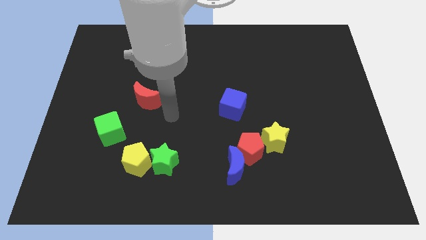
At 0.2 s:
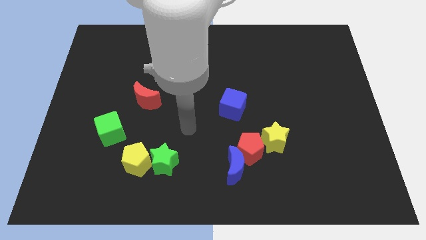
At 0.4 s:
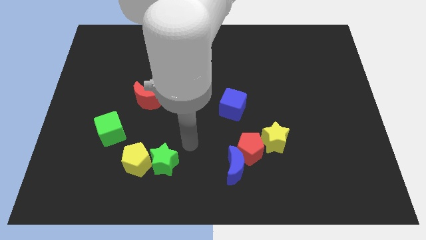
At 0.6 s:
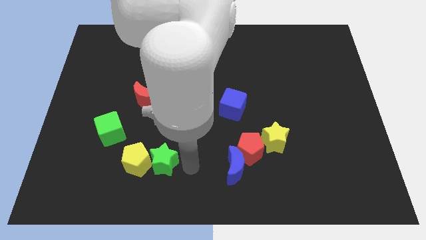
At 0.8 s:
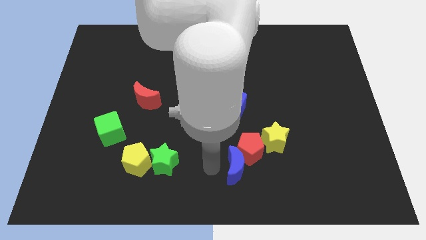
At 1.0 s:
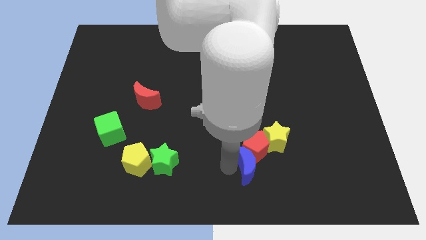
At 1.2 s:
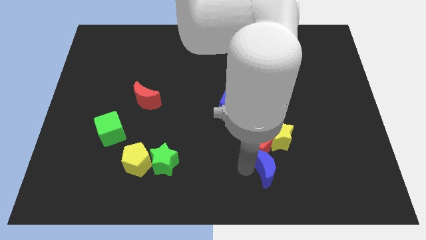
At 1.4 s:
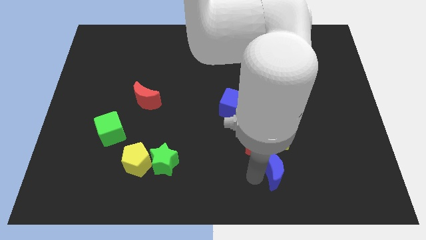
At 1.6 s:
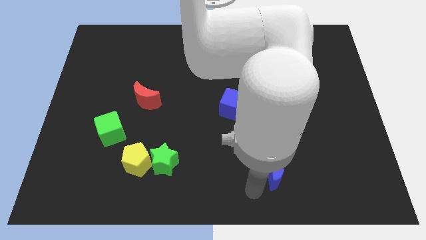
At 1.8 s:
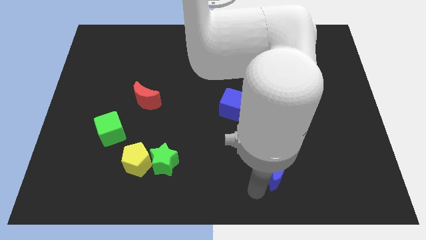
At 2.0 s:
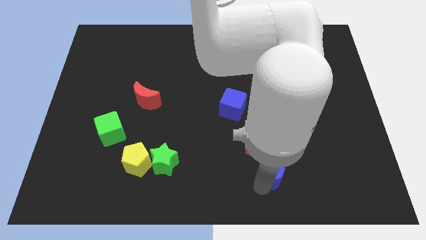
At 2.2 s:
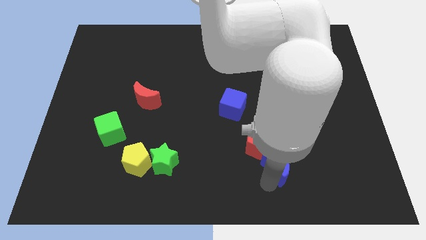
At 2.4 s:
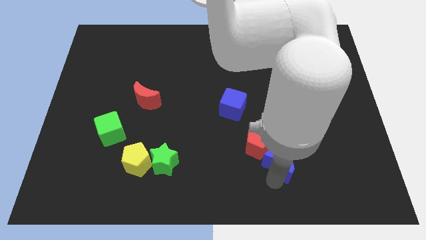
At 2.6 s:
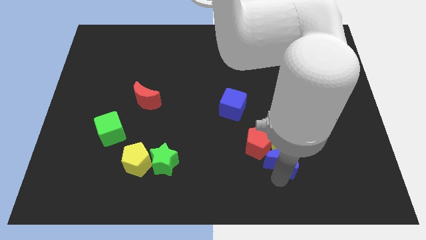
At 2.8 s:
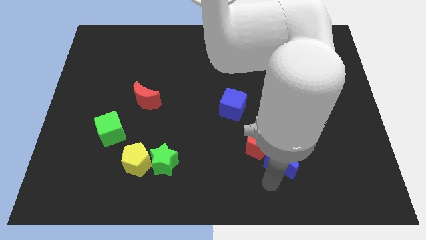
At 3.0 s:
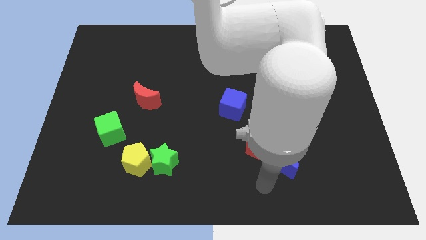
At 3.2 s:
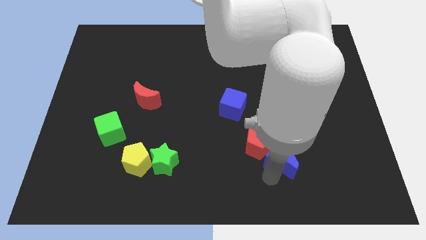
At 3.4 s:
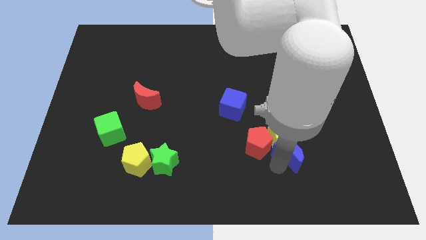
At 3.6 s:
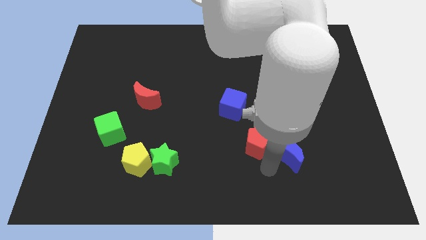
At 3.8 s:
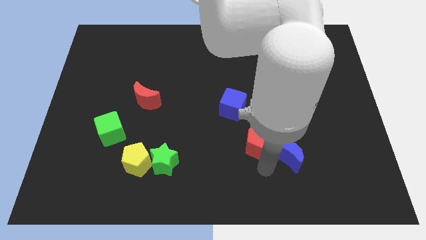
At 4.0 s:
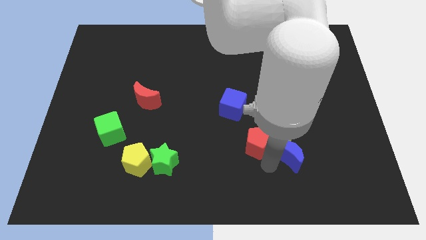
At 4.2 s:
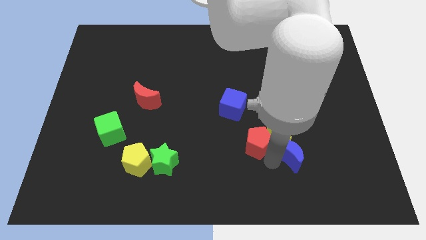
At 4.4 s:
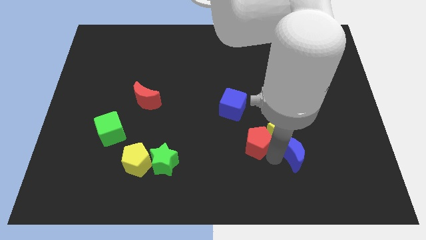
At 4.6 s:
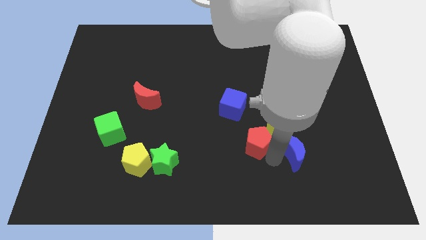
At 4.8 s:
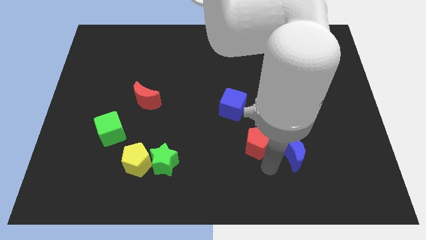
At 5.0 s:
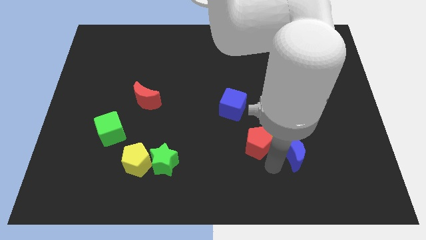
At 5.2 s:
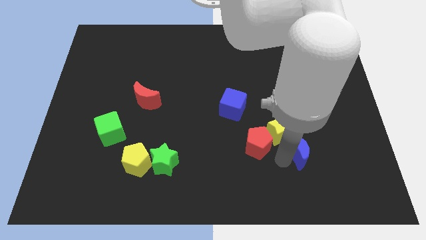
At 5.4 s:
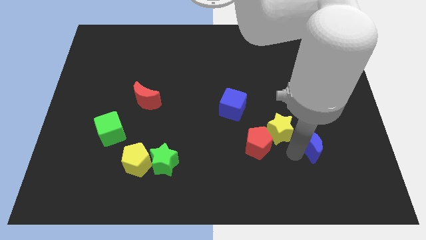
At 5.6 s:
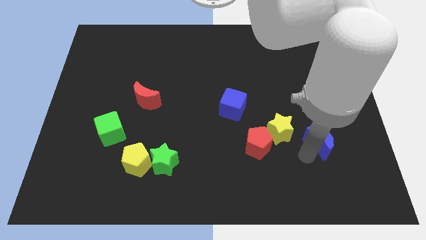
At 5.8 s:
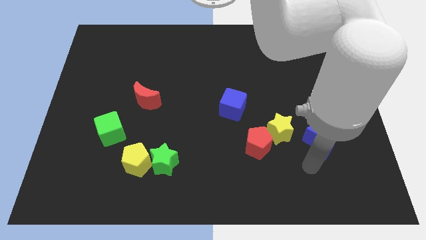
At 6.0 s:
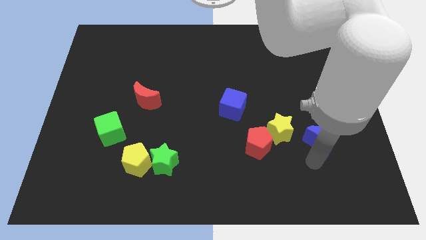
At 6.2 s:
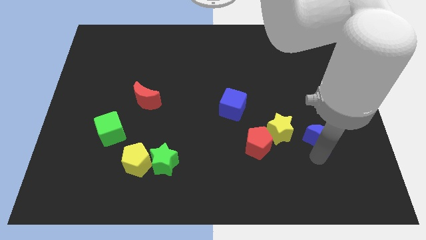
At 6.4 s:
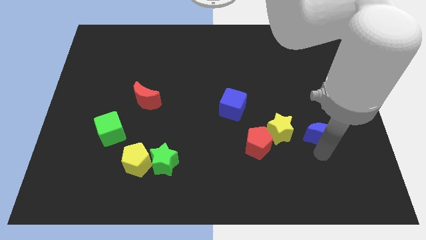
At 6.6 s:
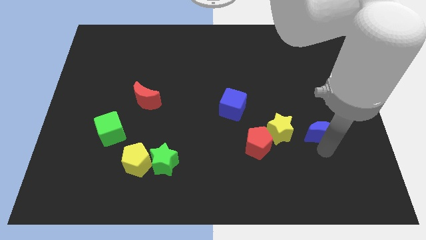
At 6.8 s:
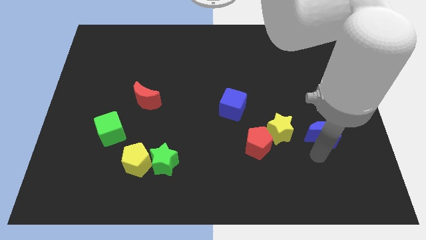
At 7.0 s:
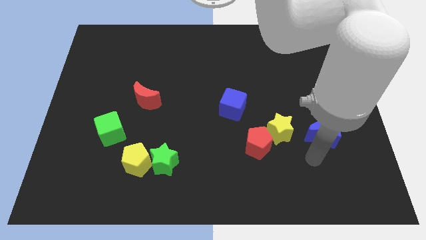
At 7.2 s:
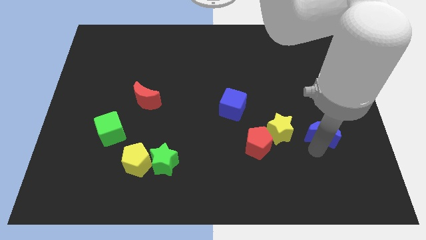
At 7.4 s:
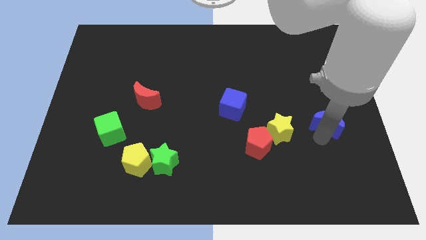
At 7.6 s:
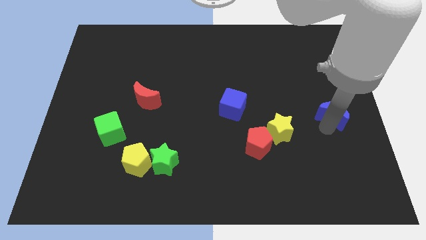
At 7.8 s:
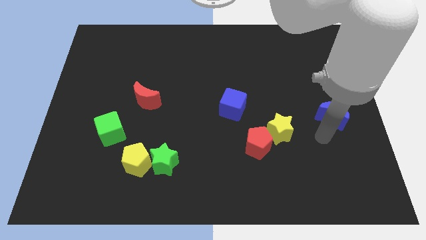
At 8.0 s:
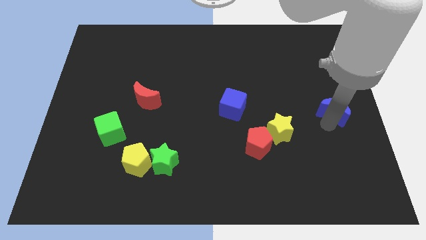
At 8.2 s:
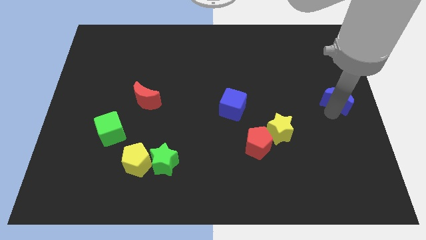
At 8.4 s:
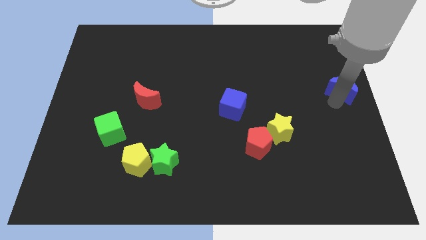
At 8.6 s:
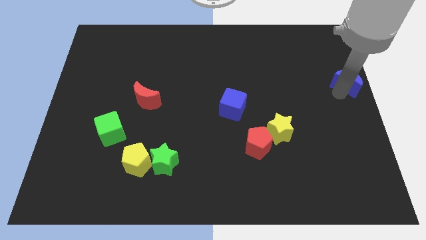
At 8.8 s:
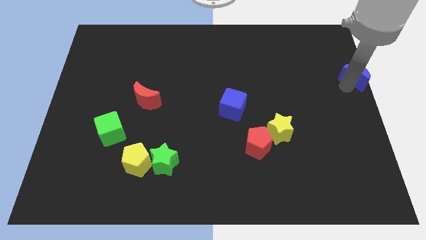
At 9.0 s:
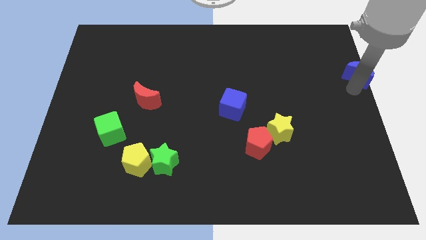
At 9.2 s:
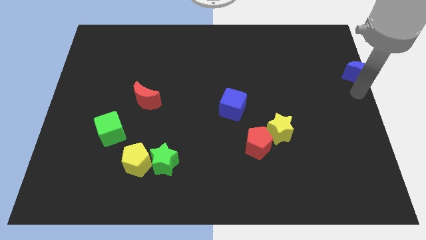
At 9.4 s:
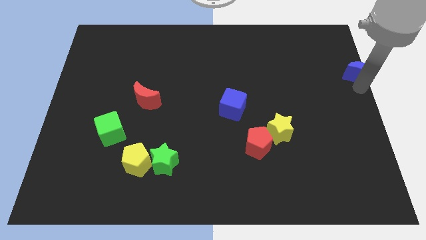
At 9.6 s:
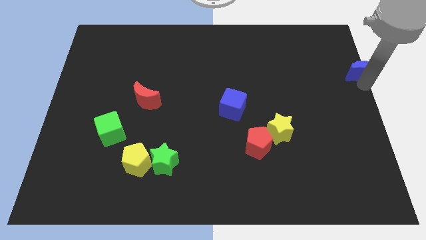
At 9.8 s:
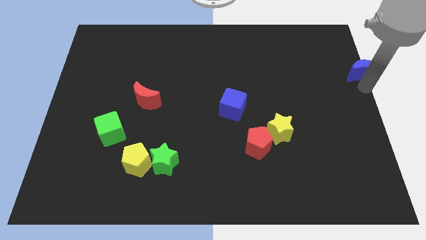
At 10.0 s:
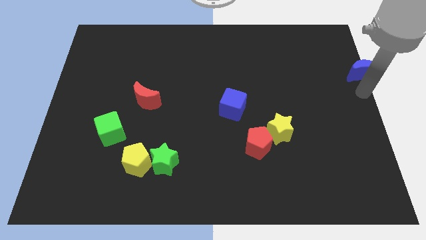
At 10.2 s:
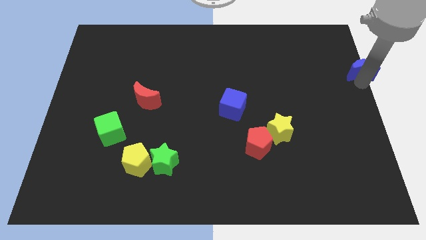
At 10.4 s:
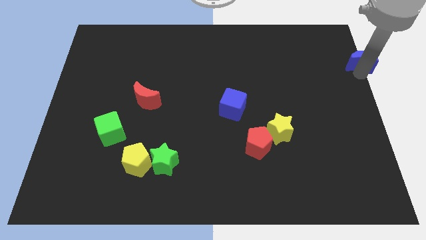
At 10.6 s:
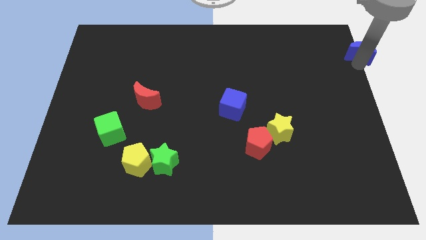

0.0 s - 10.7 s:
move the blue moon to the top right of the board

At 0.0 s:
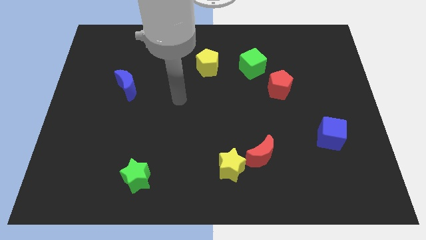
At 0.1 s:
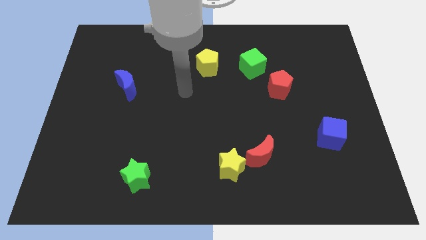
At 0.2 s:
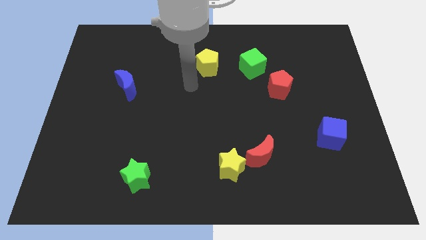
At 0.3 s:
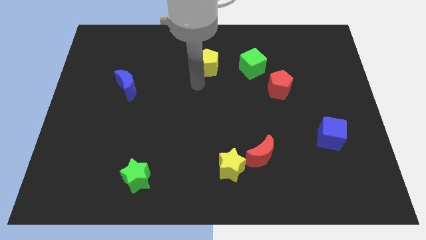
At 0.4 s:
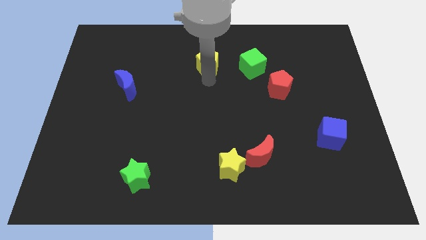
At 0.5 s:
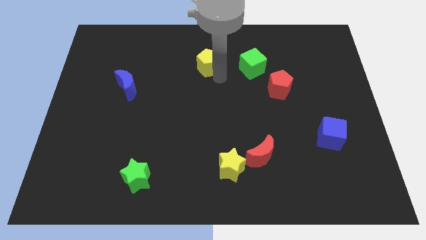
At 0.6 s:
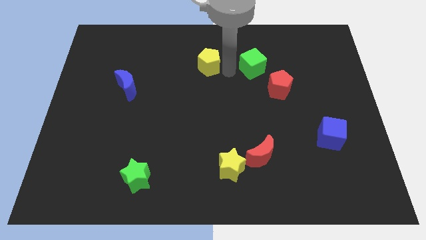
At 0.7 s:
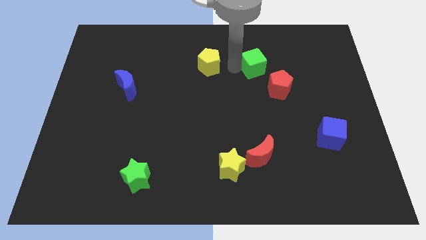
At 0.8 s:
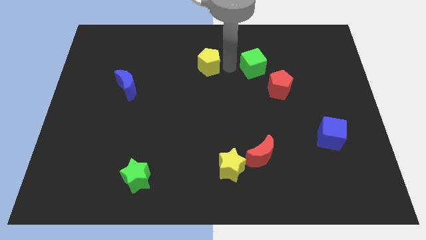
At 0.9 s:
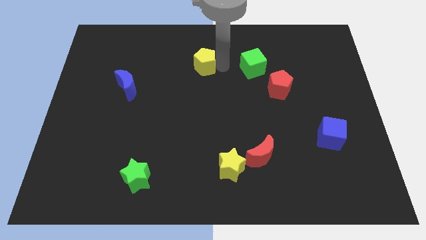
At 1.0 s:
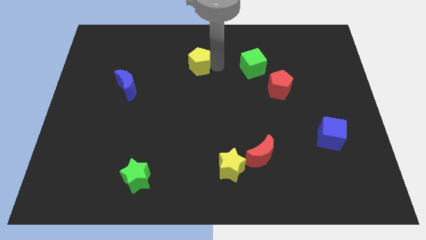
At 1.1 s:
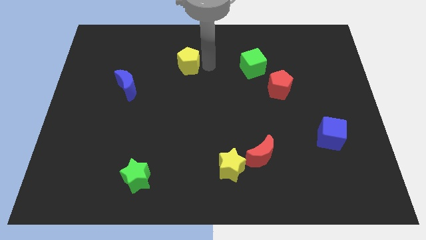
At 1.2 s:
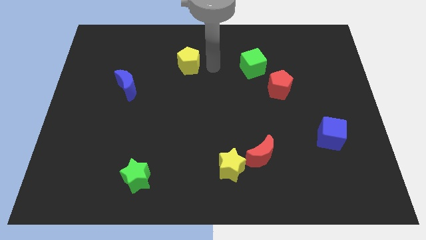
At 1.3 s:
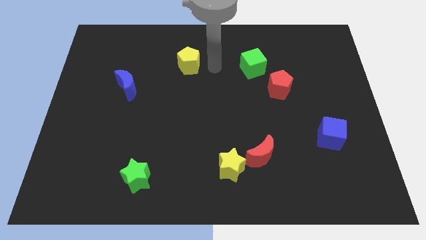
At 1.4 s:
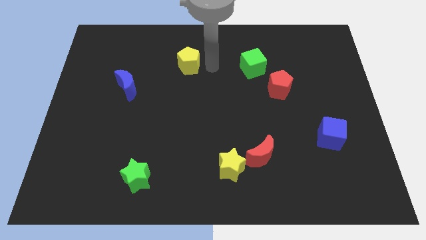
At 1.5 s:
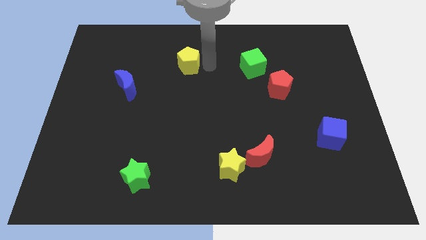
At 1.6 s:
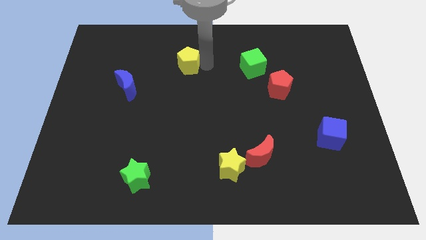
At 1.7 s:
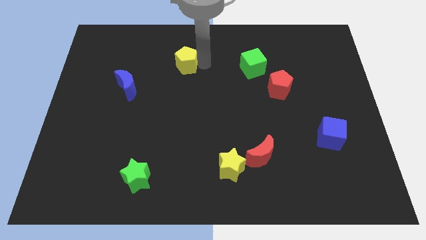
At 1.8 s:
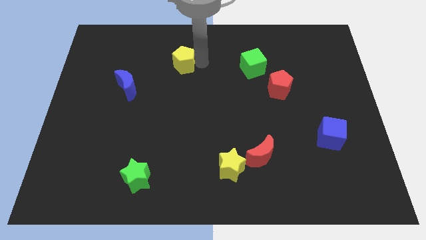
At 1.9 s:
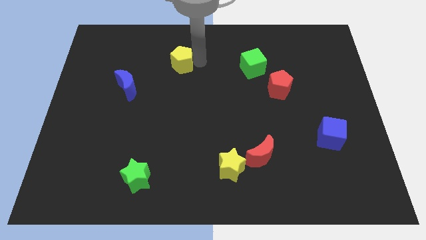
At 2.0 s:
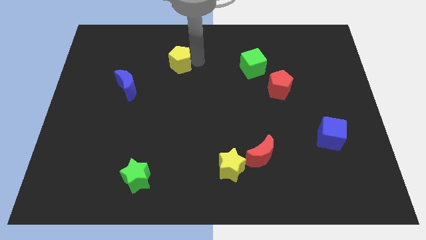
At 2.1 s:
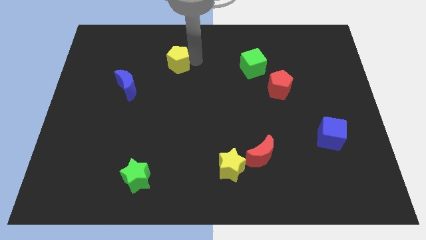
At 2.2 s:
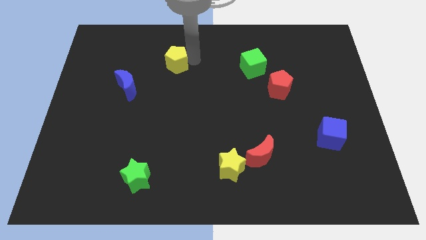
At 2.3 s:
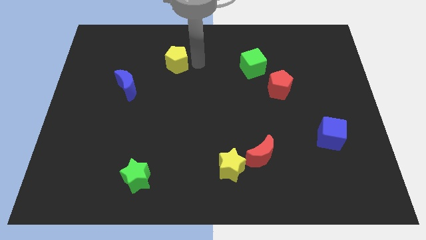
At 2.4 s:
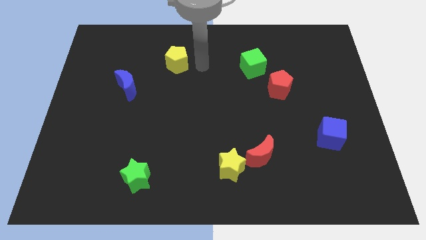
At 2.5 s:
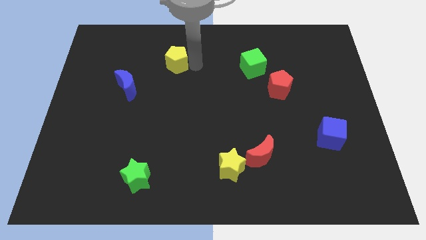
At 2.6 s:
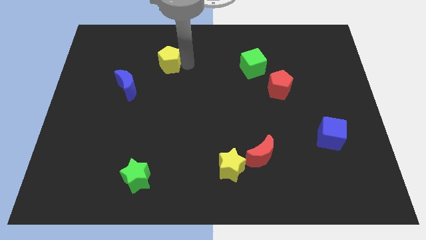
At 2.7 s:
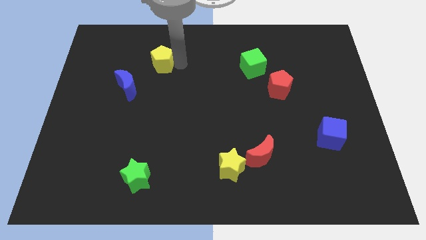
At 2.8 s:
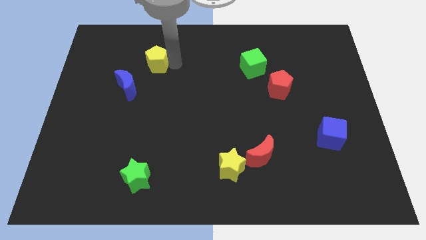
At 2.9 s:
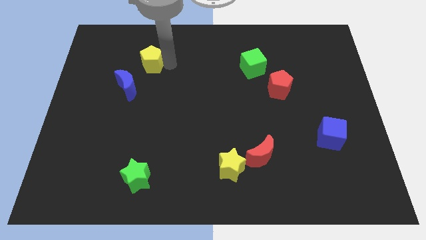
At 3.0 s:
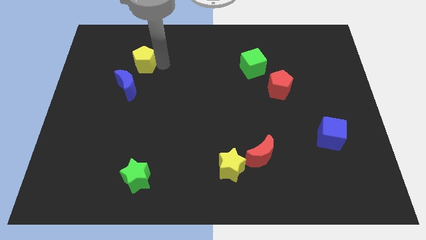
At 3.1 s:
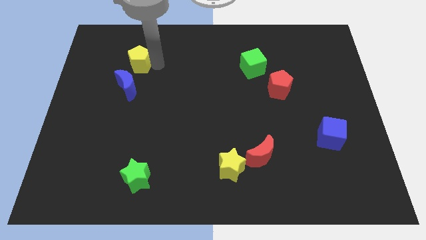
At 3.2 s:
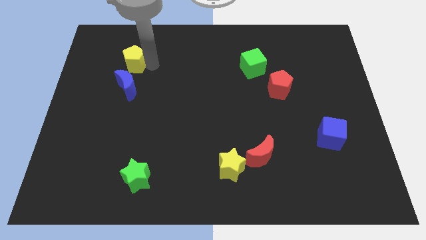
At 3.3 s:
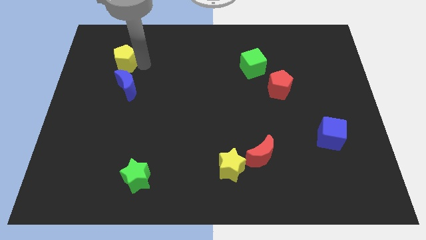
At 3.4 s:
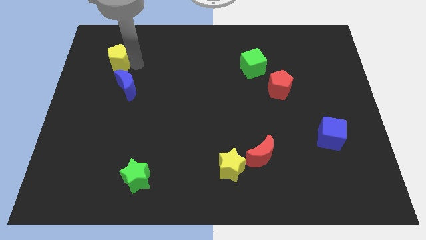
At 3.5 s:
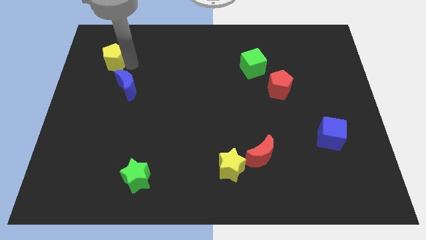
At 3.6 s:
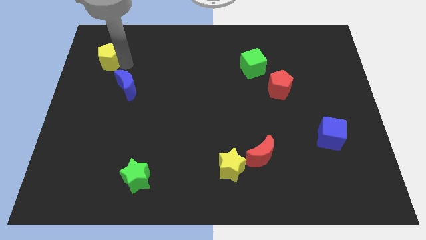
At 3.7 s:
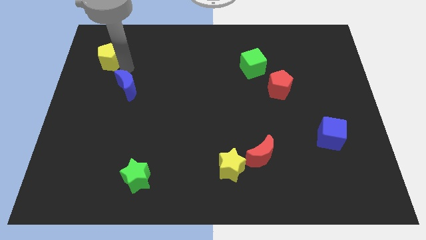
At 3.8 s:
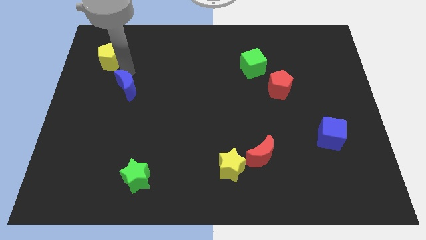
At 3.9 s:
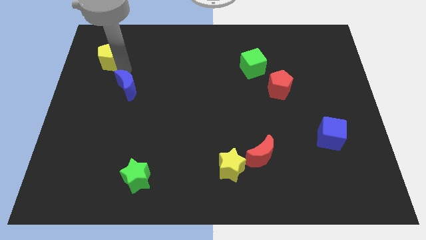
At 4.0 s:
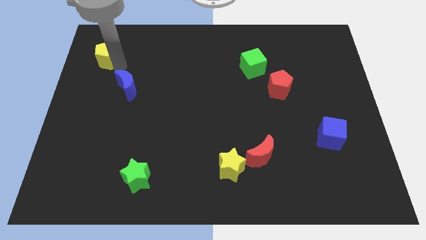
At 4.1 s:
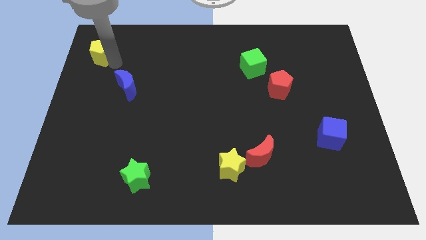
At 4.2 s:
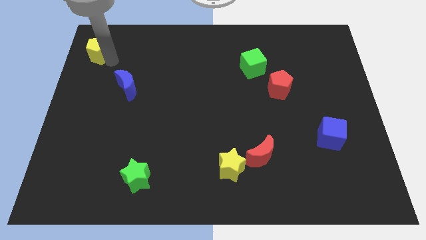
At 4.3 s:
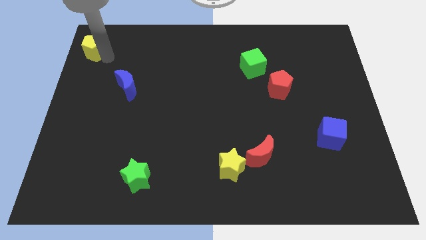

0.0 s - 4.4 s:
move the yellow pentagon to the upper left corner
